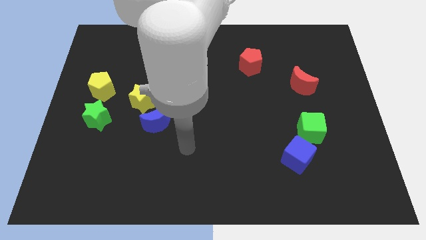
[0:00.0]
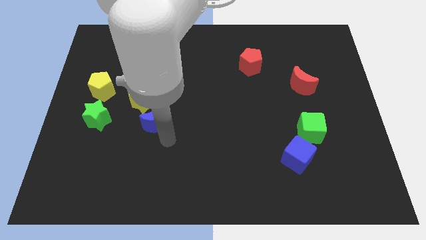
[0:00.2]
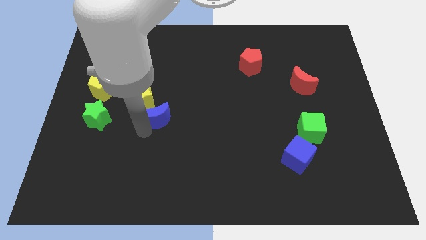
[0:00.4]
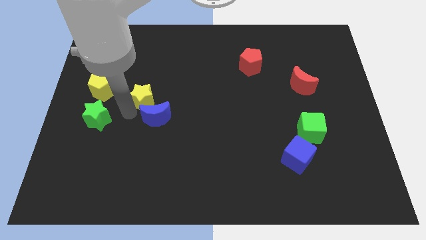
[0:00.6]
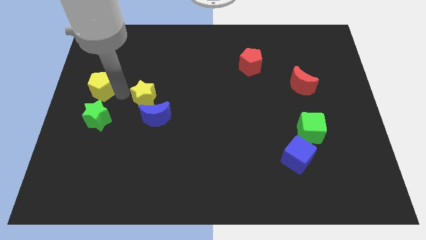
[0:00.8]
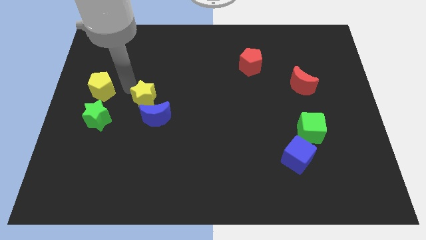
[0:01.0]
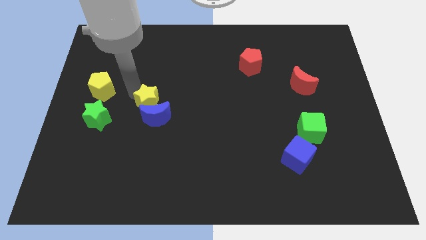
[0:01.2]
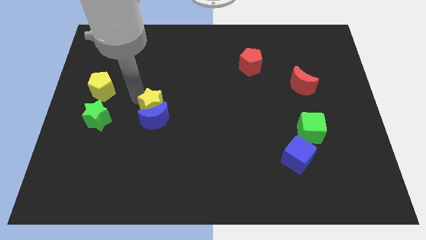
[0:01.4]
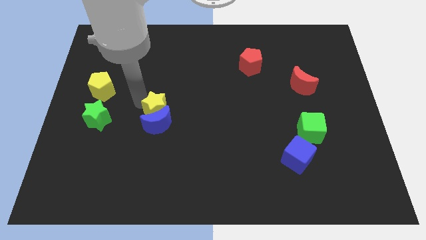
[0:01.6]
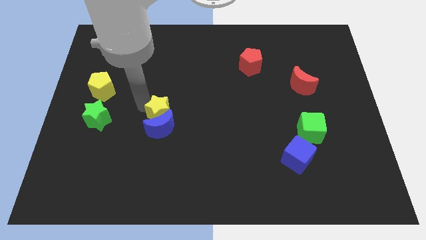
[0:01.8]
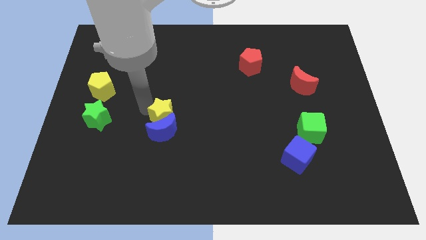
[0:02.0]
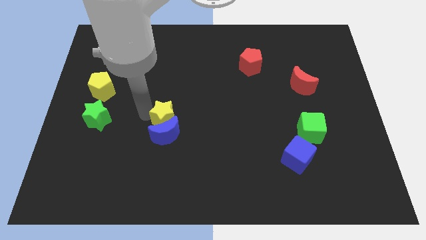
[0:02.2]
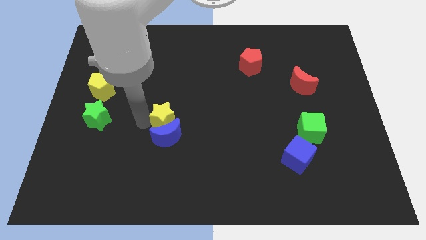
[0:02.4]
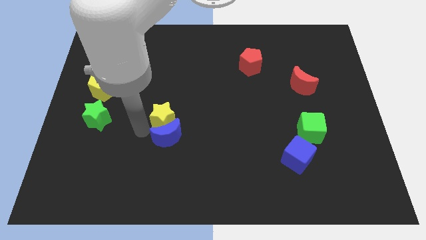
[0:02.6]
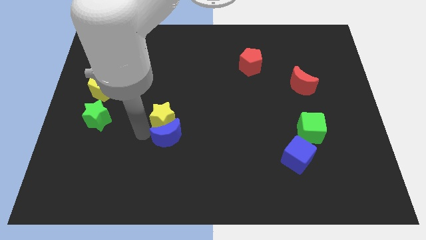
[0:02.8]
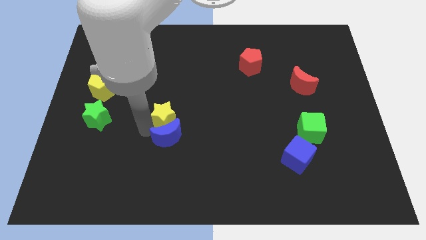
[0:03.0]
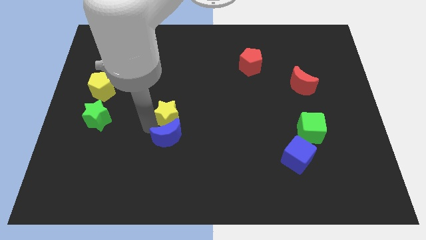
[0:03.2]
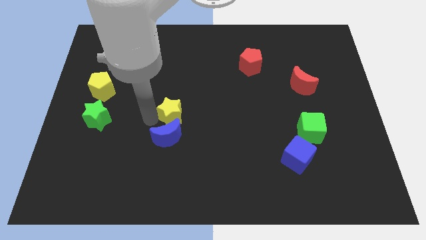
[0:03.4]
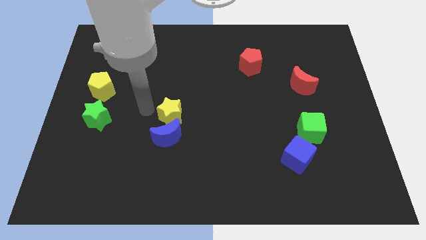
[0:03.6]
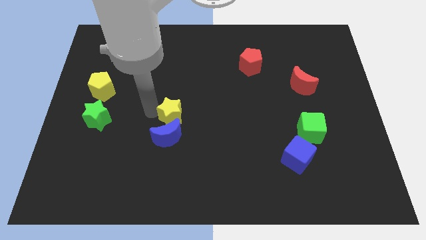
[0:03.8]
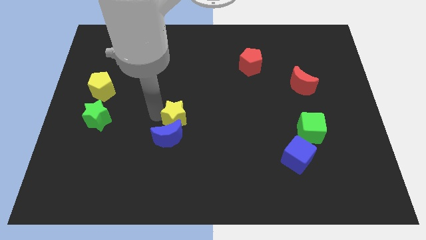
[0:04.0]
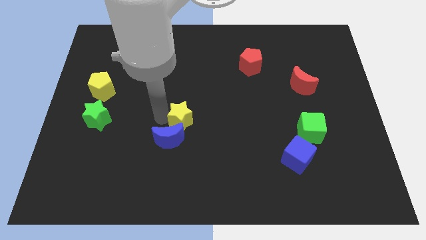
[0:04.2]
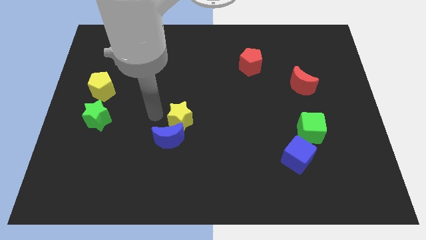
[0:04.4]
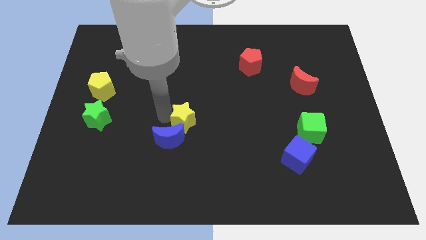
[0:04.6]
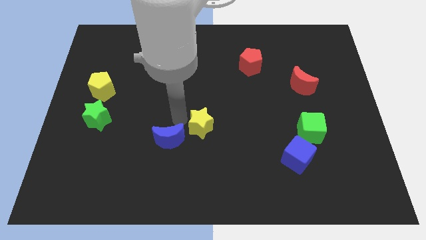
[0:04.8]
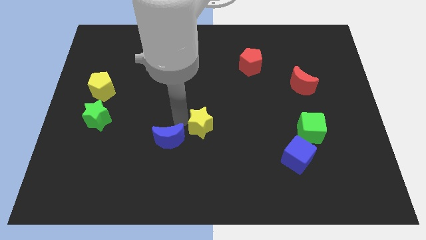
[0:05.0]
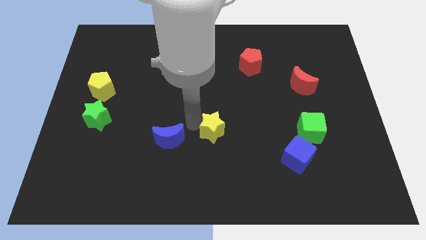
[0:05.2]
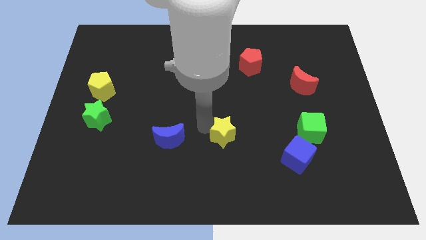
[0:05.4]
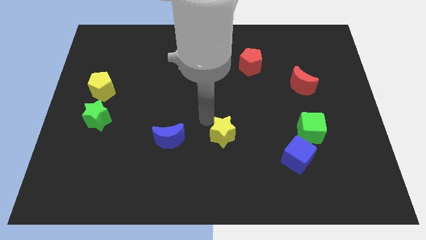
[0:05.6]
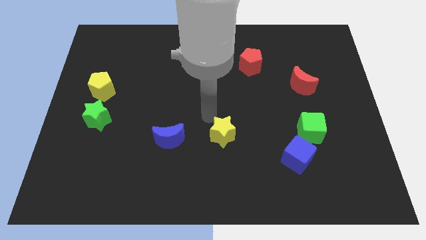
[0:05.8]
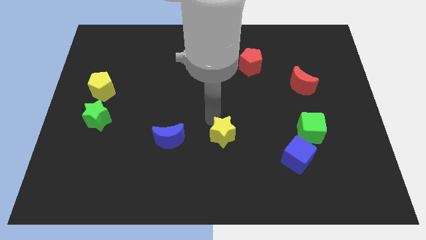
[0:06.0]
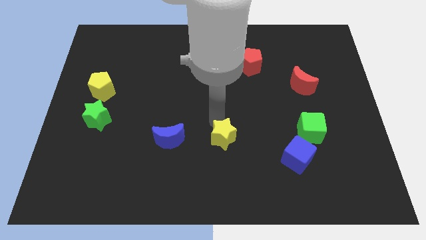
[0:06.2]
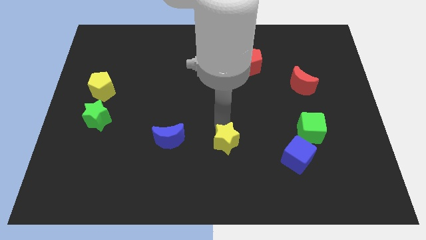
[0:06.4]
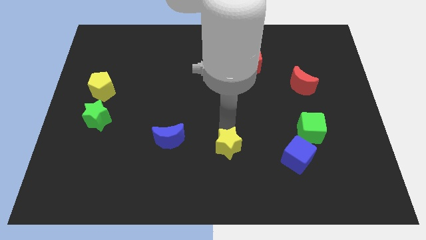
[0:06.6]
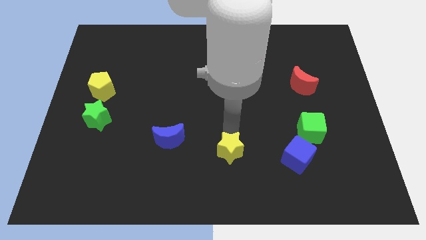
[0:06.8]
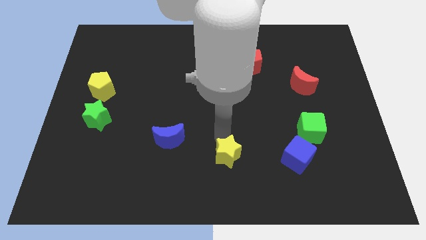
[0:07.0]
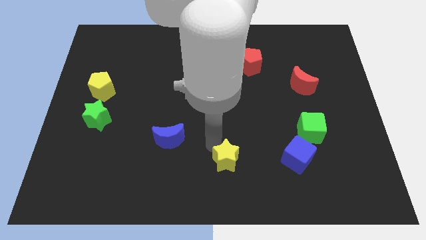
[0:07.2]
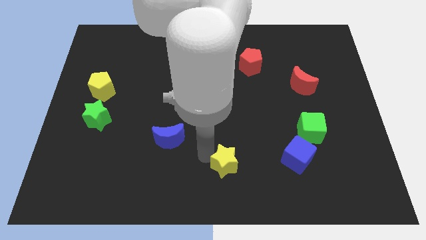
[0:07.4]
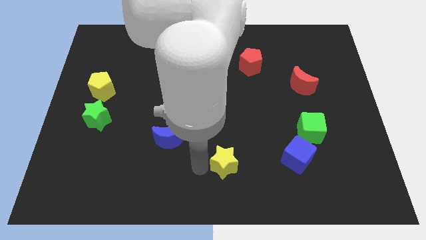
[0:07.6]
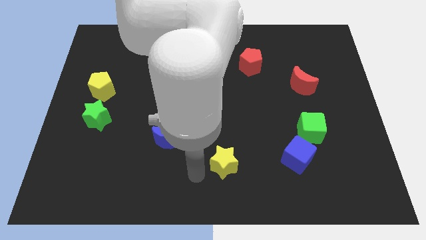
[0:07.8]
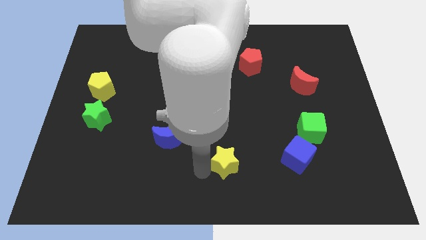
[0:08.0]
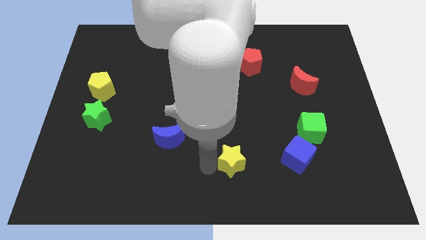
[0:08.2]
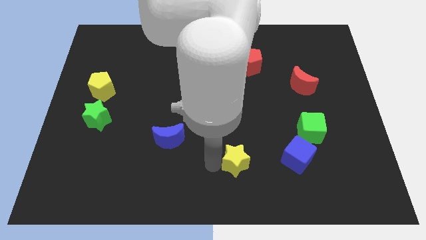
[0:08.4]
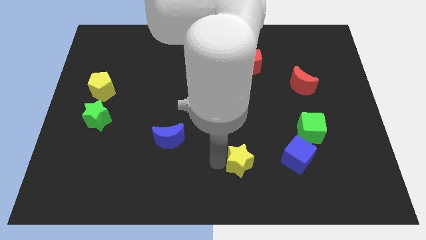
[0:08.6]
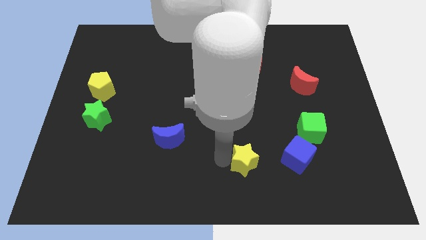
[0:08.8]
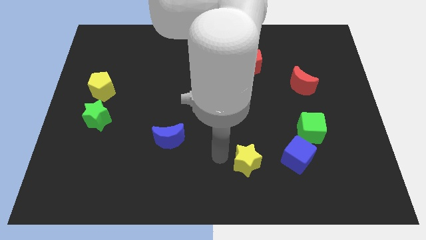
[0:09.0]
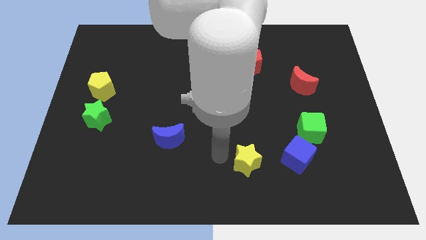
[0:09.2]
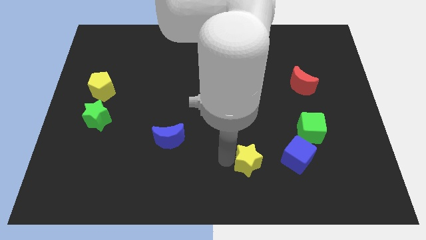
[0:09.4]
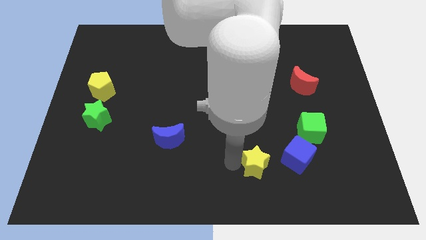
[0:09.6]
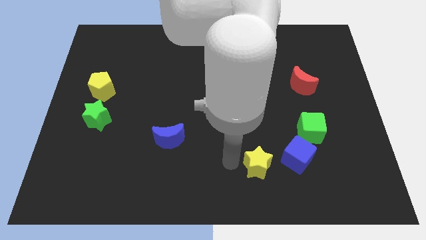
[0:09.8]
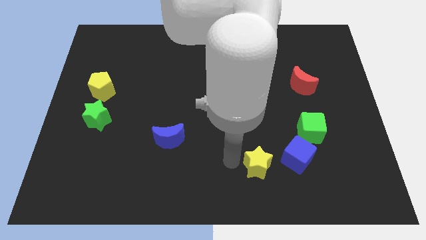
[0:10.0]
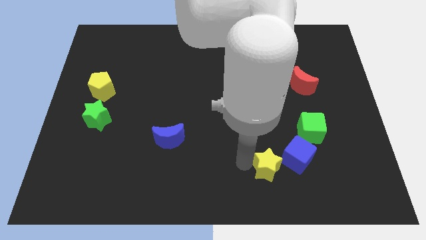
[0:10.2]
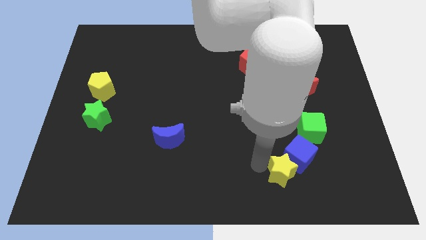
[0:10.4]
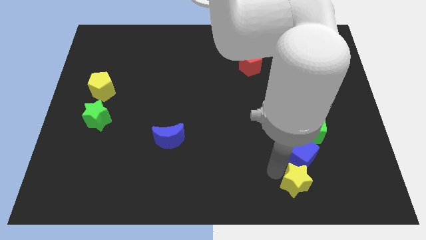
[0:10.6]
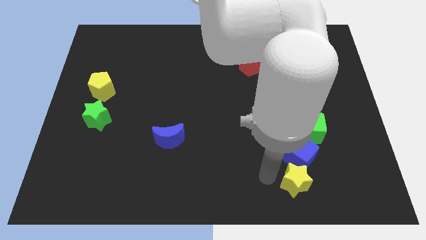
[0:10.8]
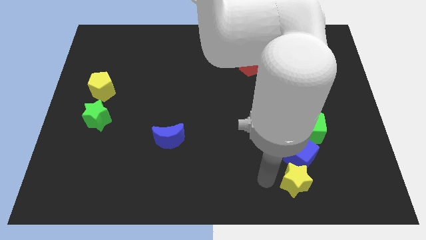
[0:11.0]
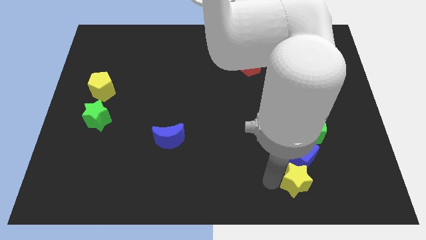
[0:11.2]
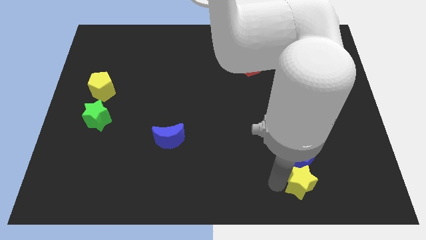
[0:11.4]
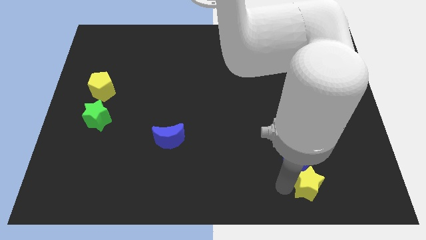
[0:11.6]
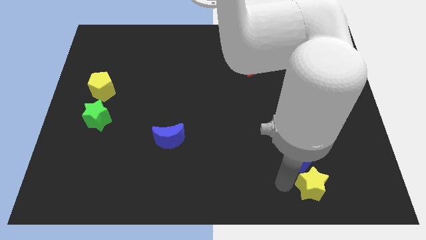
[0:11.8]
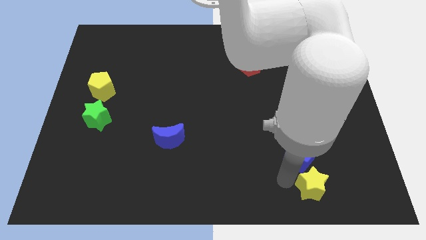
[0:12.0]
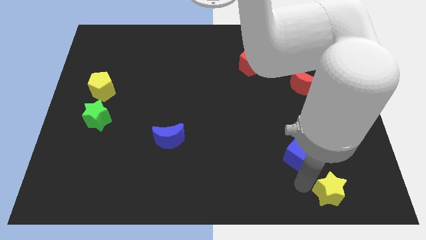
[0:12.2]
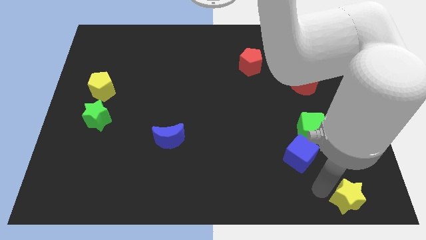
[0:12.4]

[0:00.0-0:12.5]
slide the yellow star to the bottom right corner

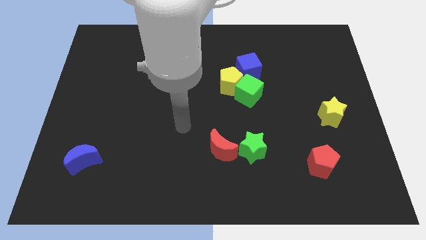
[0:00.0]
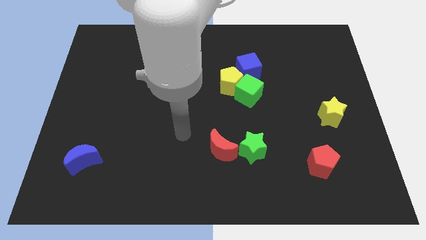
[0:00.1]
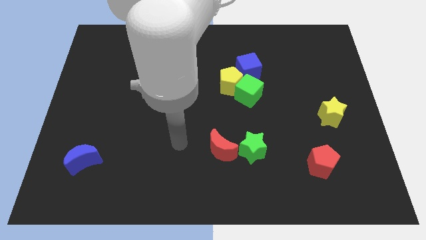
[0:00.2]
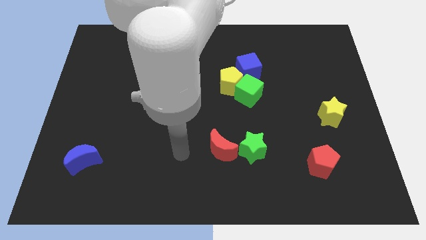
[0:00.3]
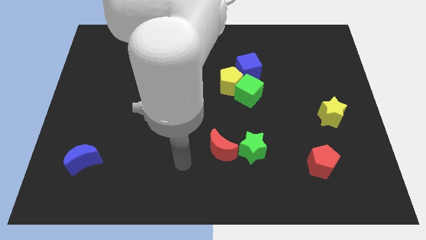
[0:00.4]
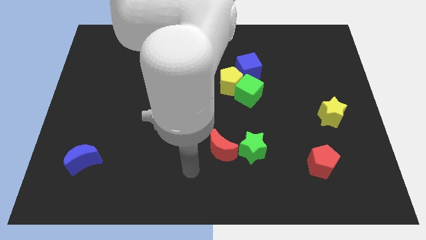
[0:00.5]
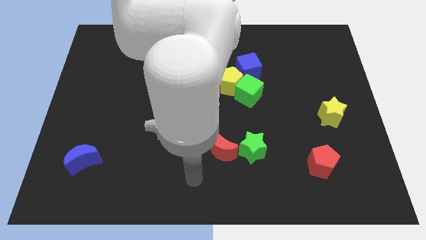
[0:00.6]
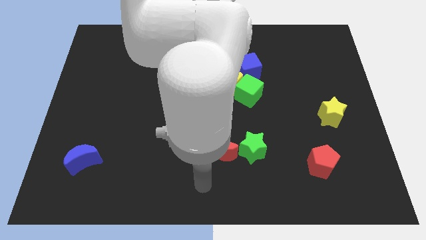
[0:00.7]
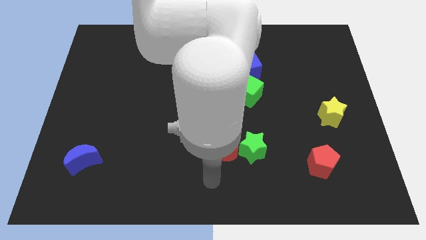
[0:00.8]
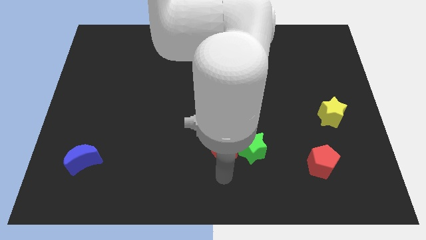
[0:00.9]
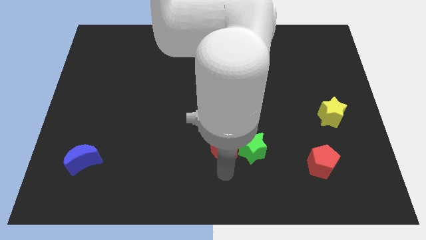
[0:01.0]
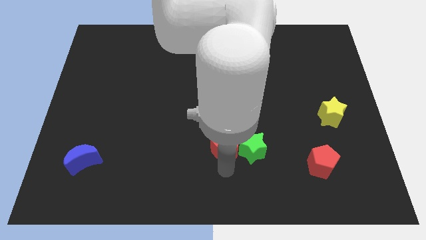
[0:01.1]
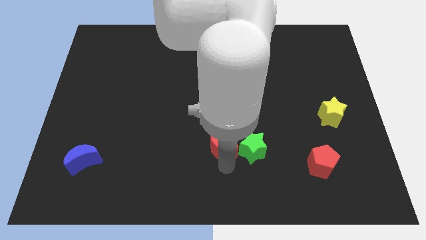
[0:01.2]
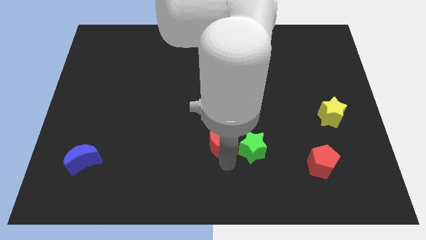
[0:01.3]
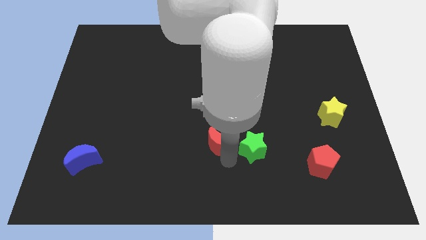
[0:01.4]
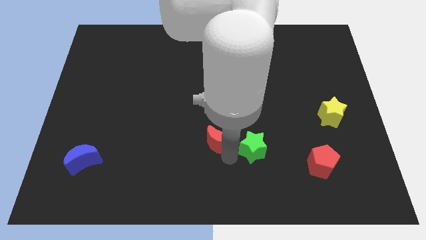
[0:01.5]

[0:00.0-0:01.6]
slide the red moon to the center of the board
